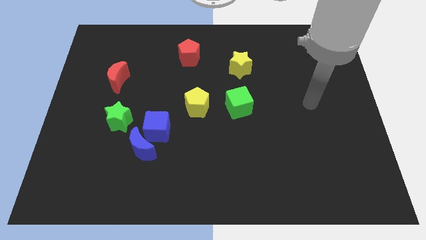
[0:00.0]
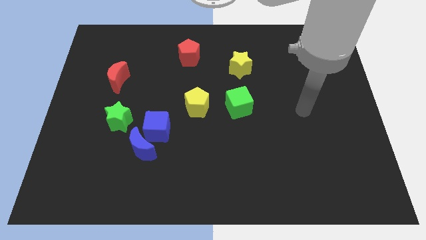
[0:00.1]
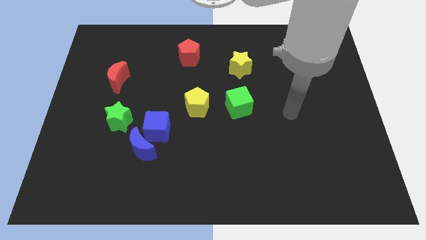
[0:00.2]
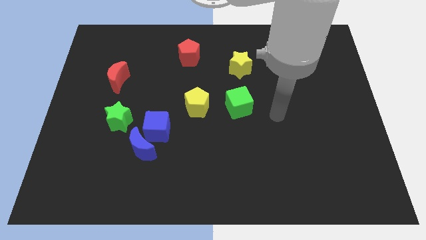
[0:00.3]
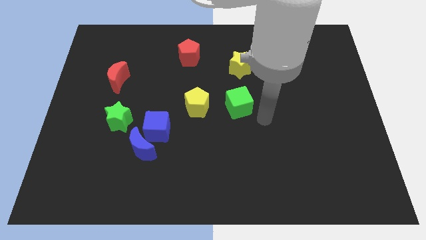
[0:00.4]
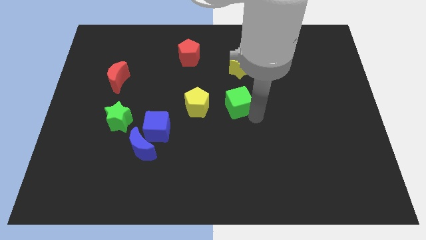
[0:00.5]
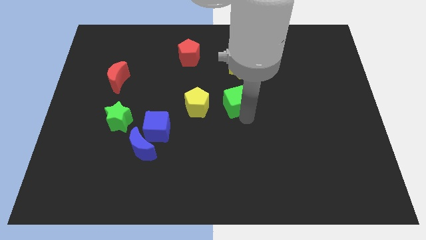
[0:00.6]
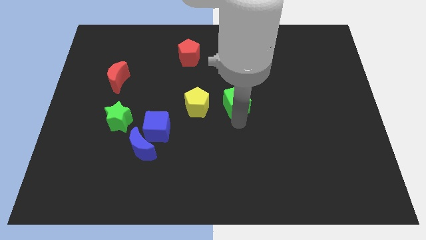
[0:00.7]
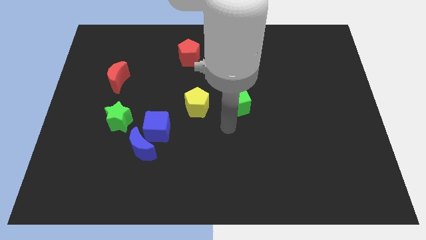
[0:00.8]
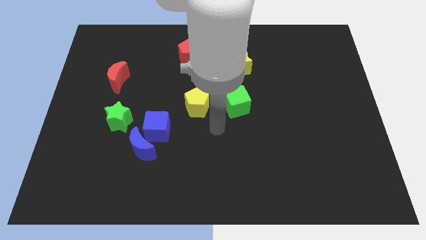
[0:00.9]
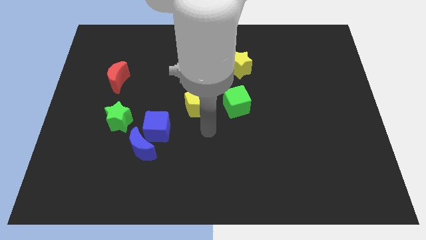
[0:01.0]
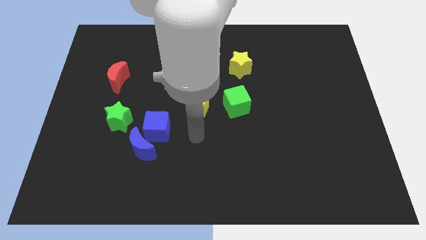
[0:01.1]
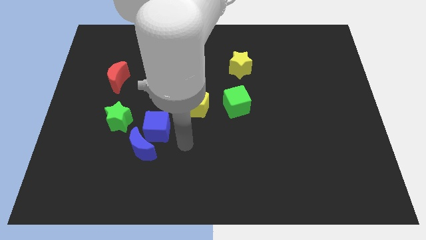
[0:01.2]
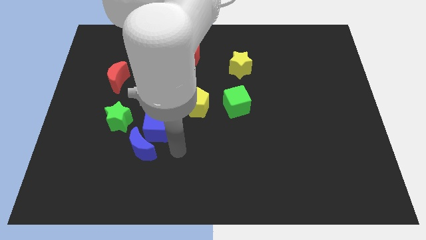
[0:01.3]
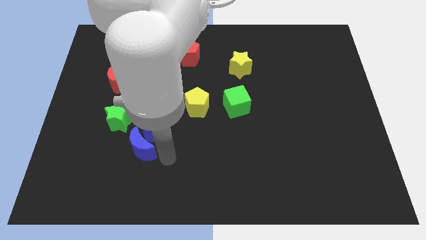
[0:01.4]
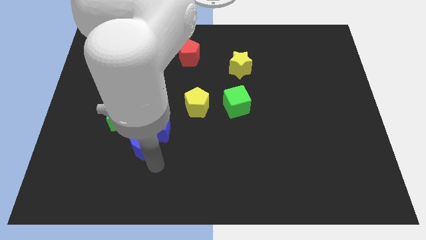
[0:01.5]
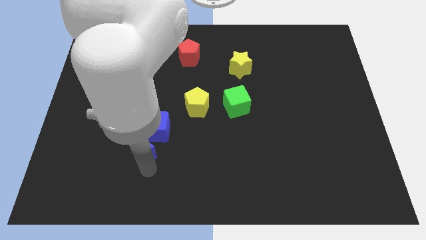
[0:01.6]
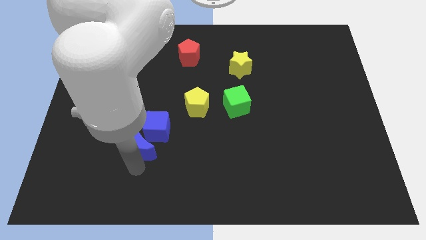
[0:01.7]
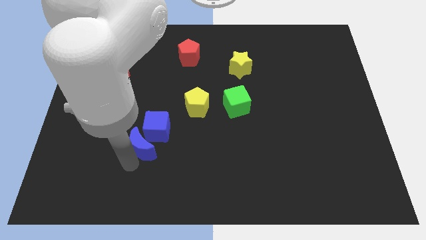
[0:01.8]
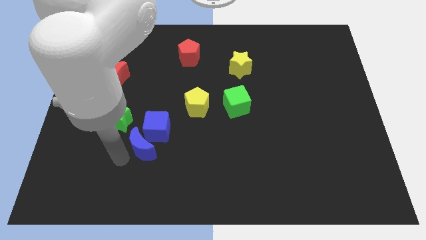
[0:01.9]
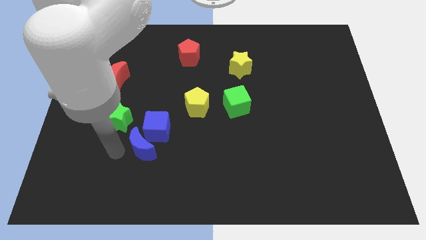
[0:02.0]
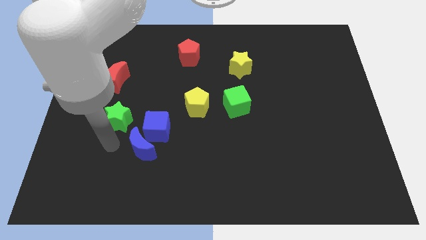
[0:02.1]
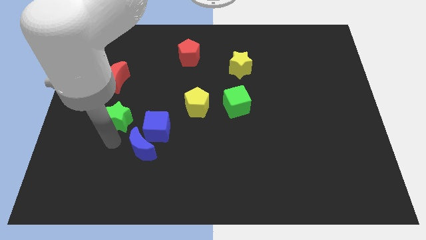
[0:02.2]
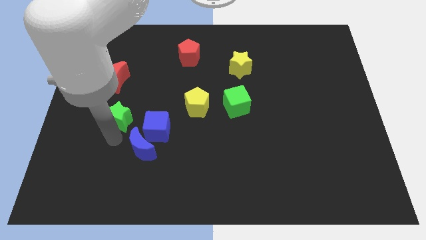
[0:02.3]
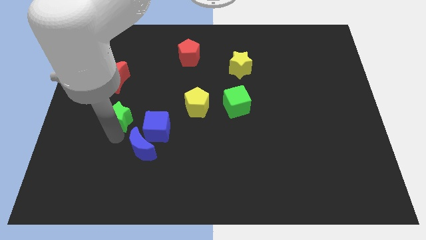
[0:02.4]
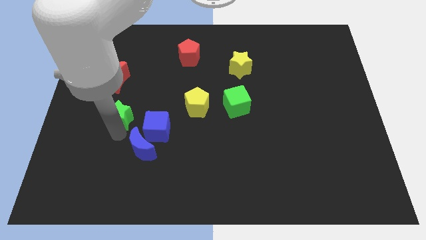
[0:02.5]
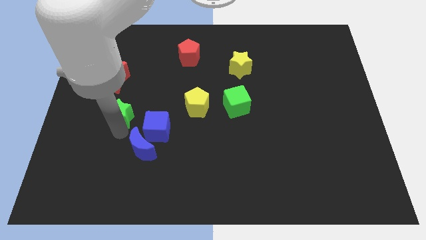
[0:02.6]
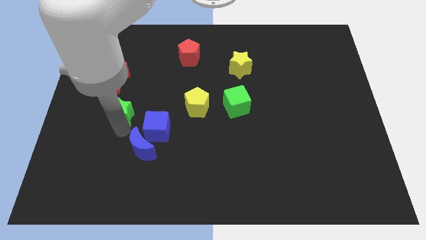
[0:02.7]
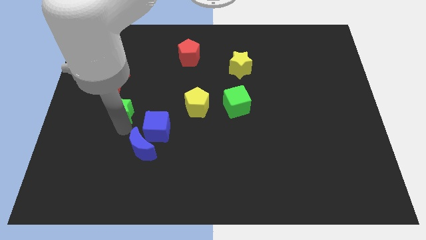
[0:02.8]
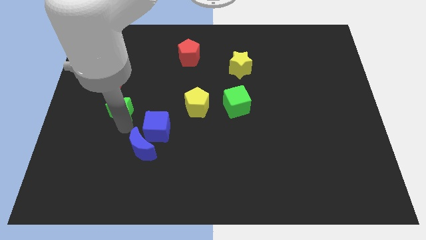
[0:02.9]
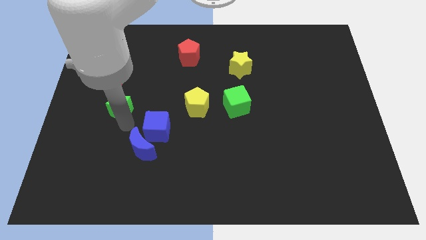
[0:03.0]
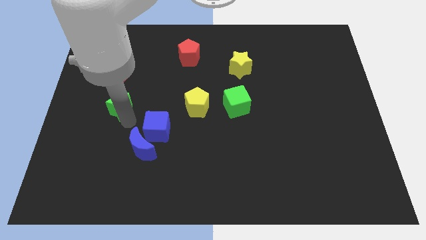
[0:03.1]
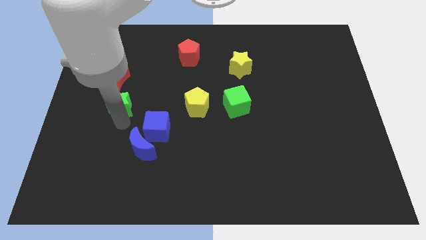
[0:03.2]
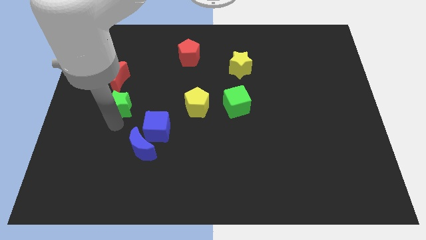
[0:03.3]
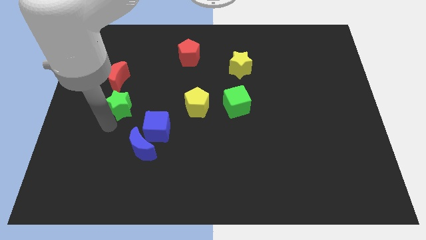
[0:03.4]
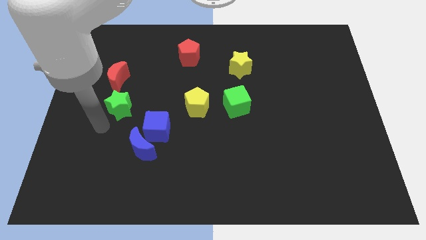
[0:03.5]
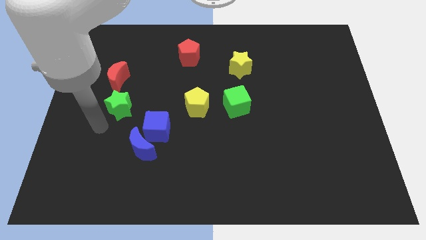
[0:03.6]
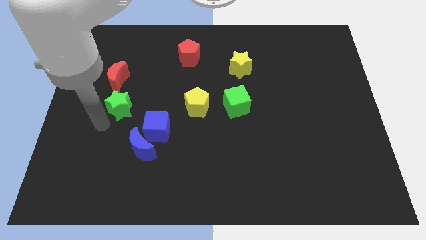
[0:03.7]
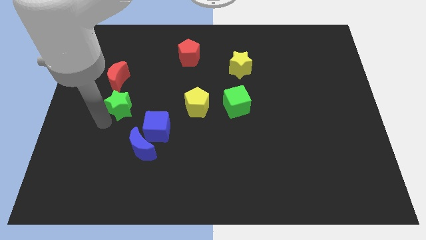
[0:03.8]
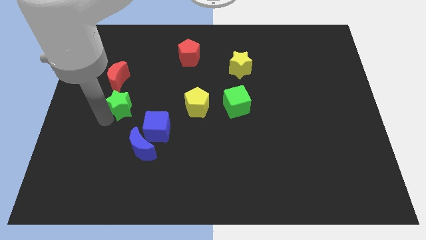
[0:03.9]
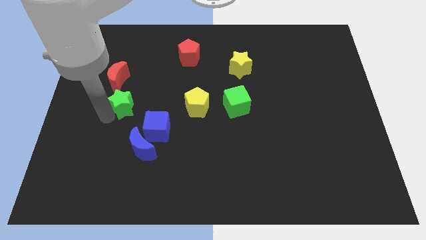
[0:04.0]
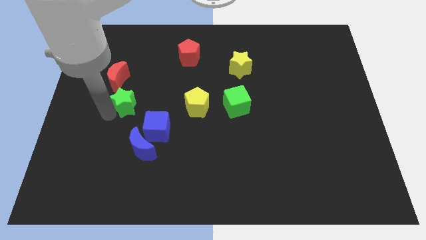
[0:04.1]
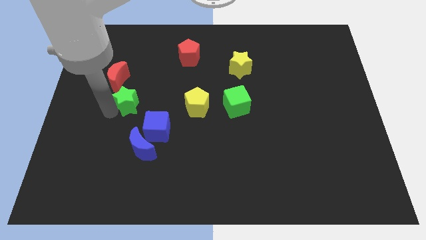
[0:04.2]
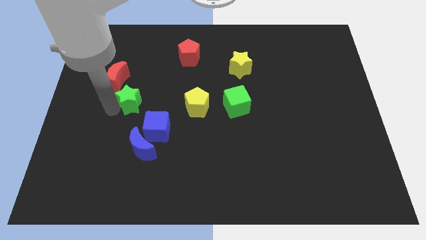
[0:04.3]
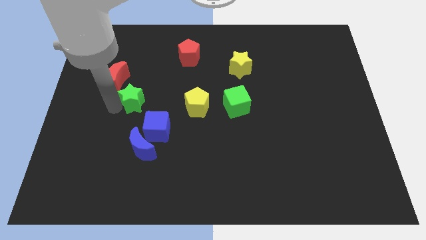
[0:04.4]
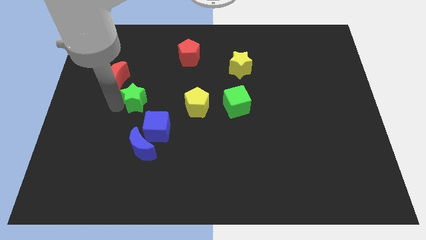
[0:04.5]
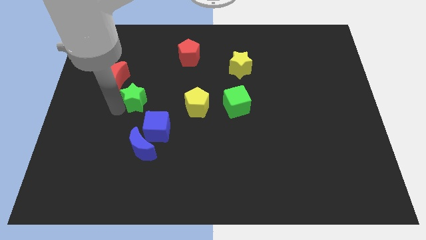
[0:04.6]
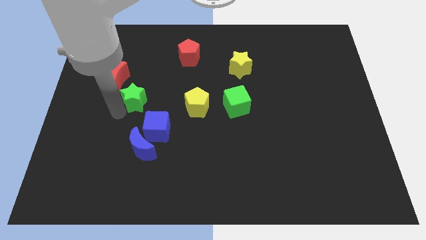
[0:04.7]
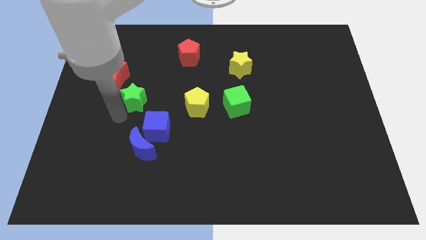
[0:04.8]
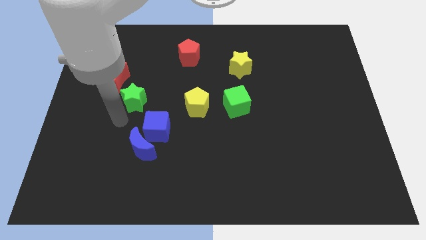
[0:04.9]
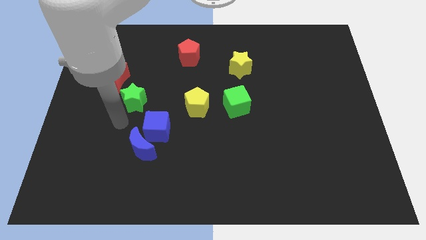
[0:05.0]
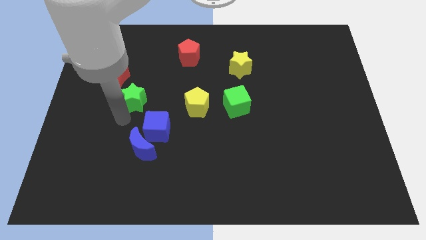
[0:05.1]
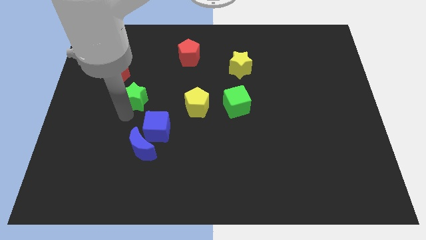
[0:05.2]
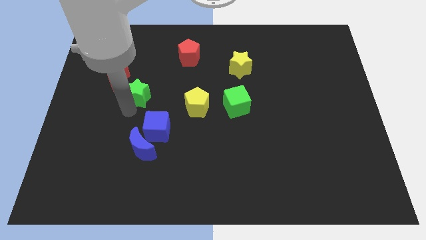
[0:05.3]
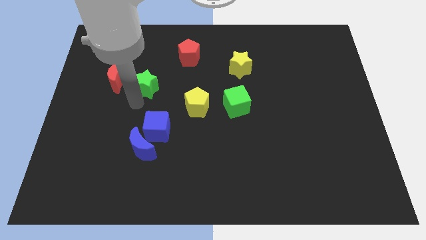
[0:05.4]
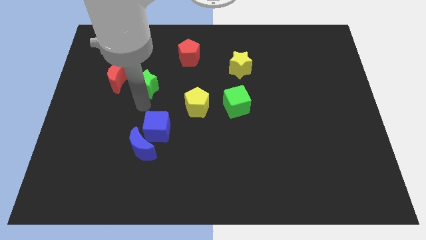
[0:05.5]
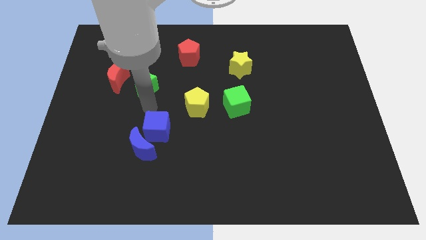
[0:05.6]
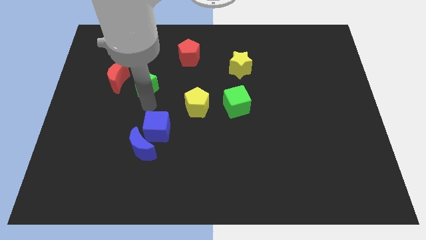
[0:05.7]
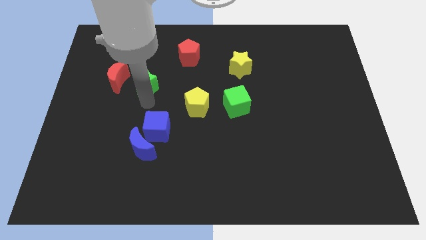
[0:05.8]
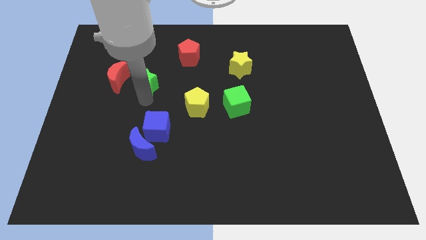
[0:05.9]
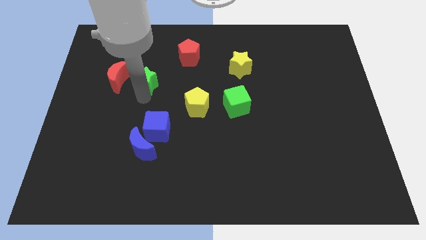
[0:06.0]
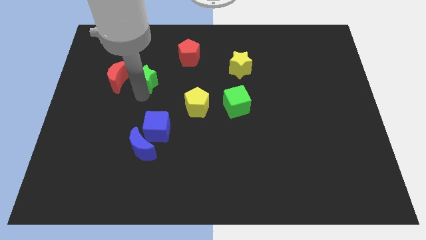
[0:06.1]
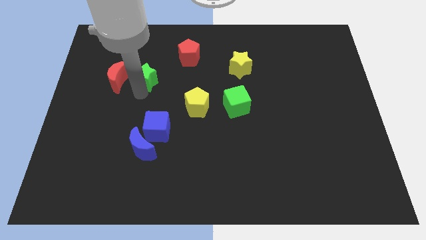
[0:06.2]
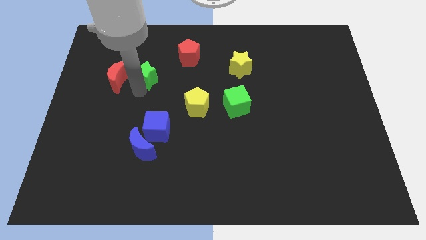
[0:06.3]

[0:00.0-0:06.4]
put the green star diagonally up and to the right of the red moon

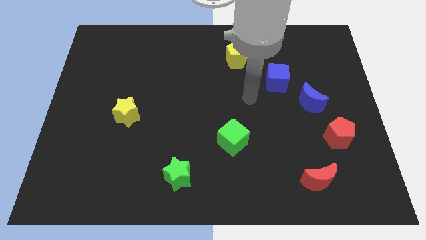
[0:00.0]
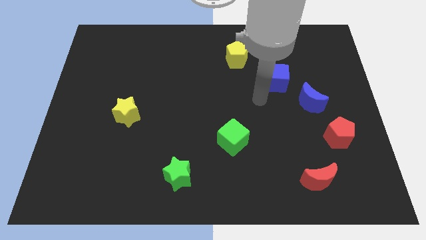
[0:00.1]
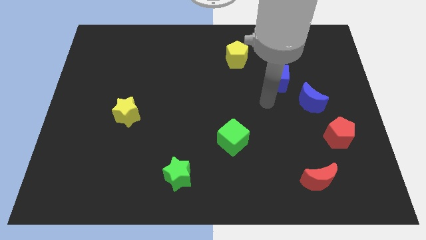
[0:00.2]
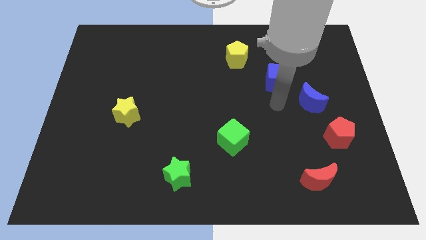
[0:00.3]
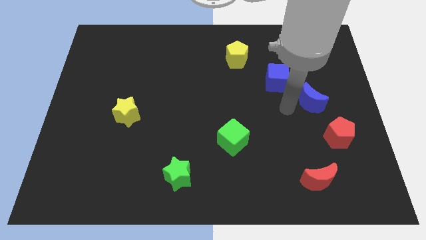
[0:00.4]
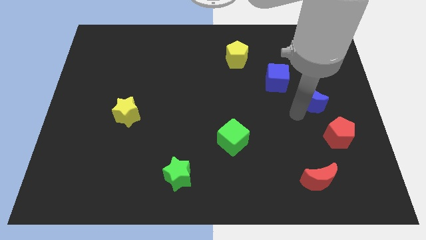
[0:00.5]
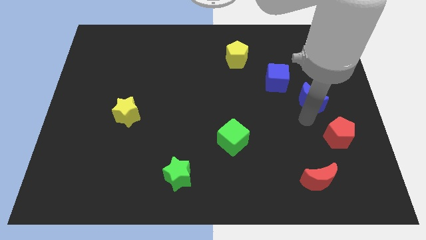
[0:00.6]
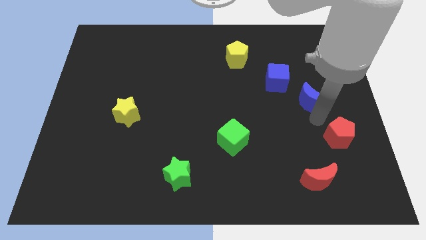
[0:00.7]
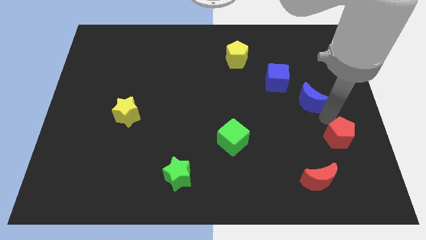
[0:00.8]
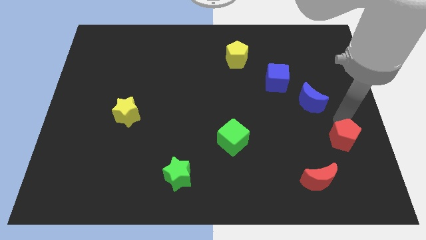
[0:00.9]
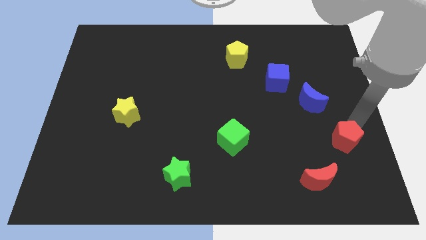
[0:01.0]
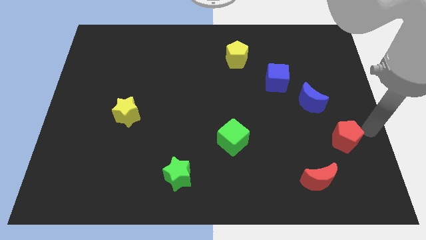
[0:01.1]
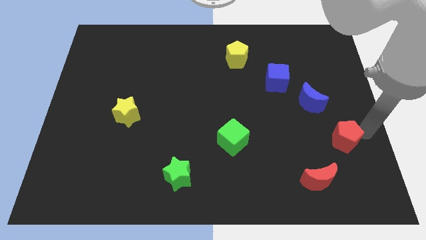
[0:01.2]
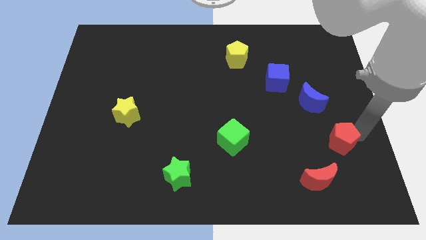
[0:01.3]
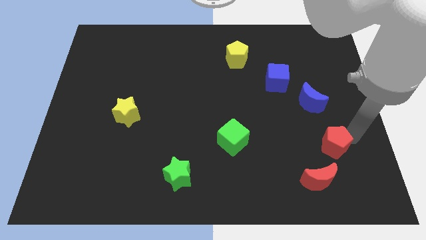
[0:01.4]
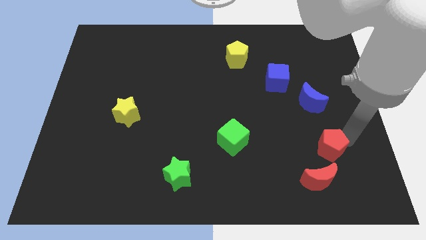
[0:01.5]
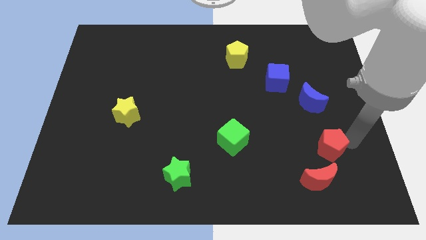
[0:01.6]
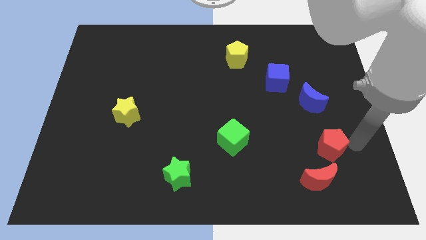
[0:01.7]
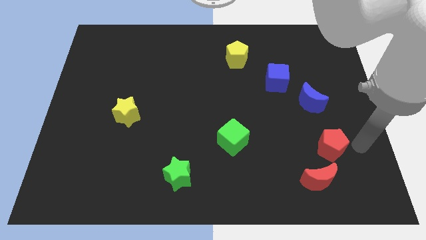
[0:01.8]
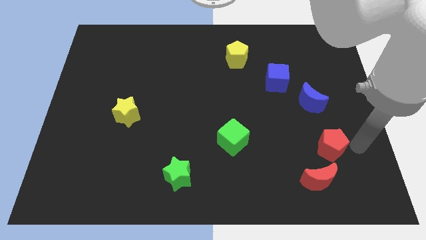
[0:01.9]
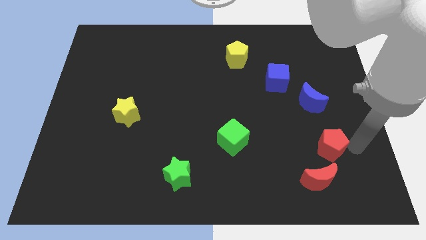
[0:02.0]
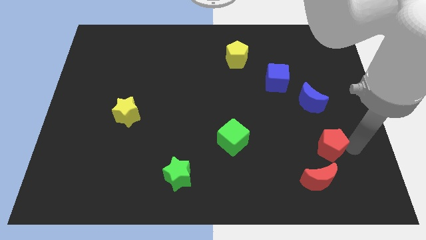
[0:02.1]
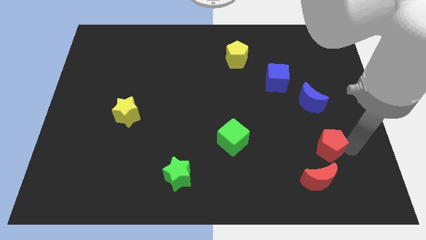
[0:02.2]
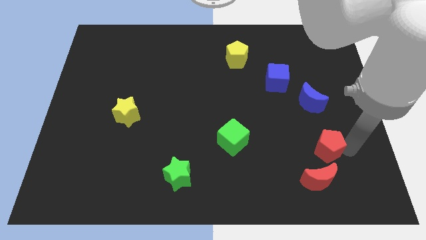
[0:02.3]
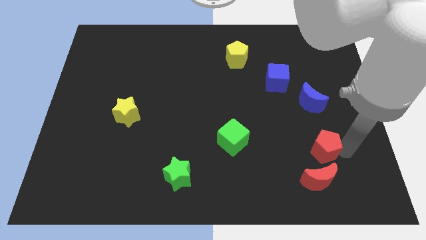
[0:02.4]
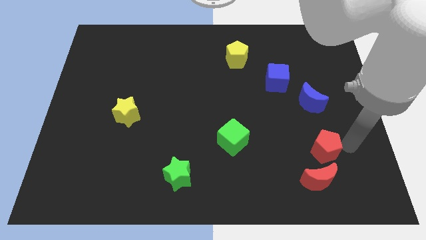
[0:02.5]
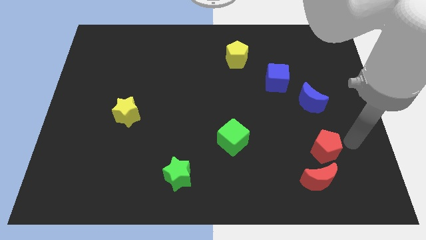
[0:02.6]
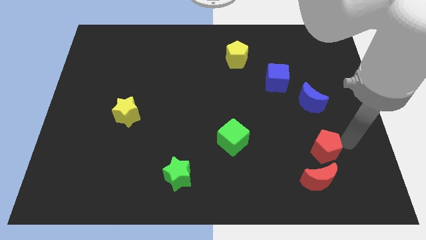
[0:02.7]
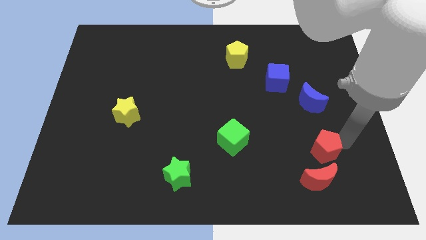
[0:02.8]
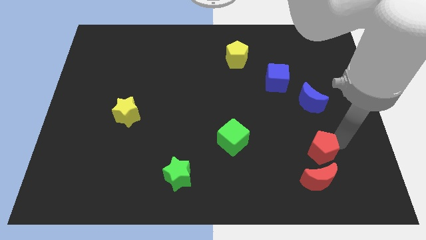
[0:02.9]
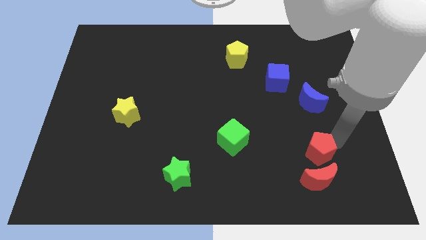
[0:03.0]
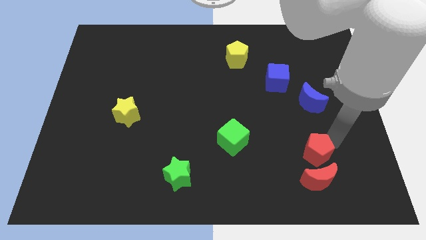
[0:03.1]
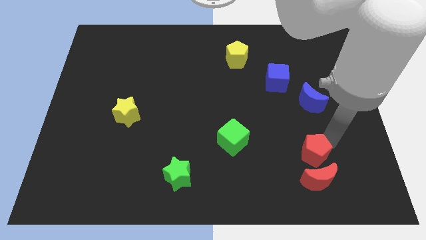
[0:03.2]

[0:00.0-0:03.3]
put the red pentagon to the top left side of the red moon
